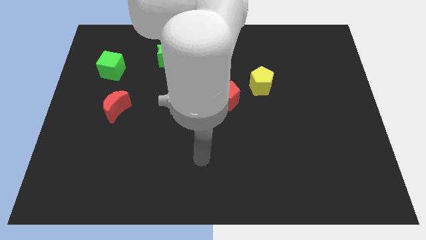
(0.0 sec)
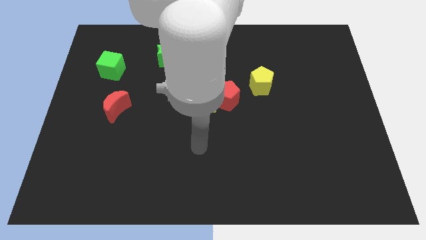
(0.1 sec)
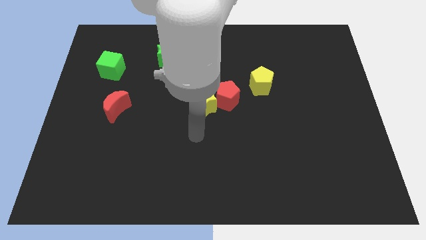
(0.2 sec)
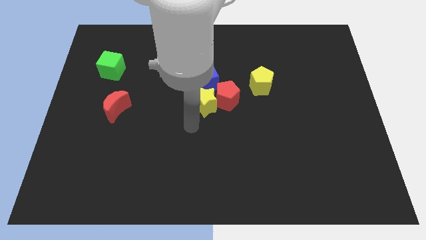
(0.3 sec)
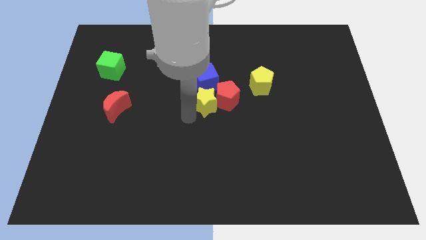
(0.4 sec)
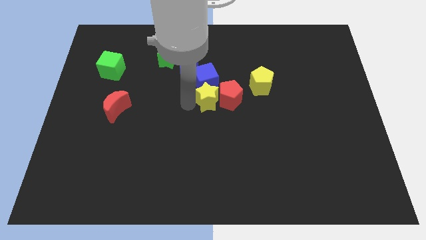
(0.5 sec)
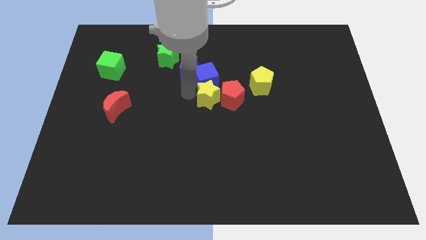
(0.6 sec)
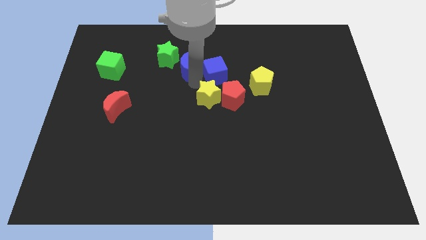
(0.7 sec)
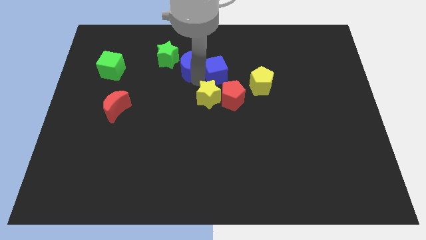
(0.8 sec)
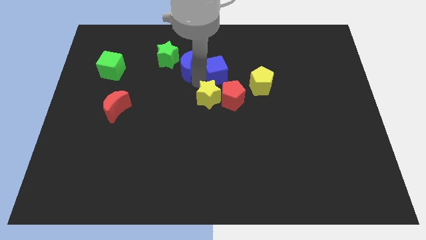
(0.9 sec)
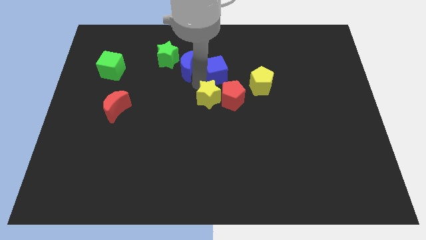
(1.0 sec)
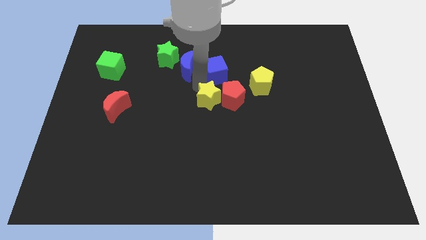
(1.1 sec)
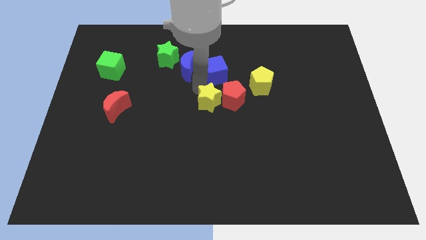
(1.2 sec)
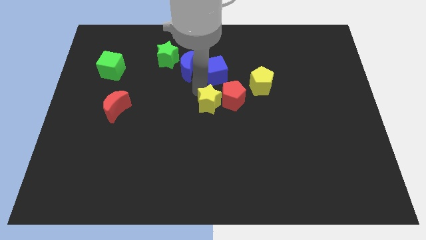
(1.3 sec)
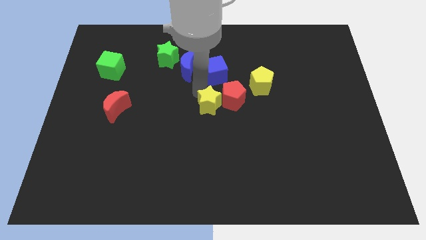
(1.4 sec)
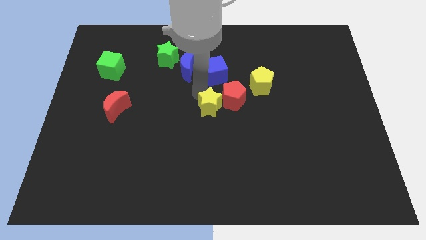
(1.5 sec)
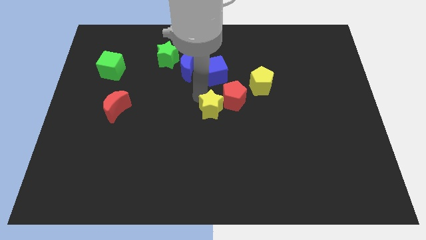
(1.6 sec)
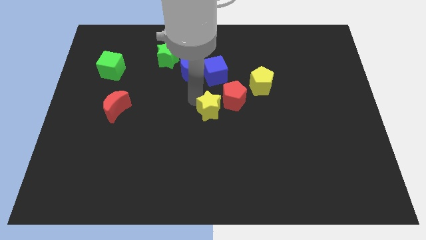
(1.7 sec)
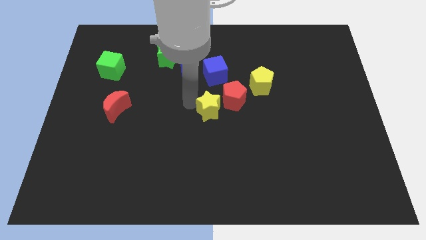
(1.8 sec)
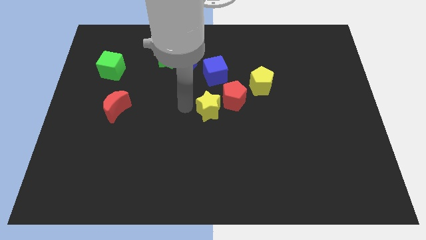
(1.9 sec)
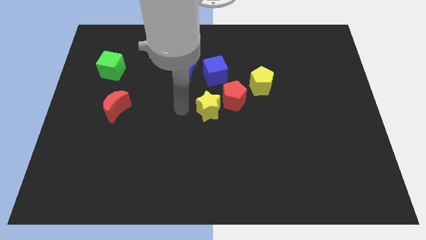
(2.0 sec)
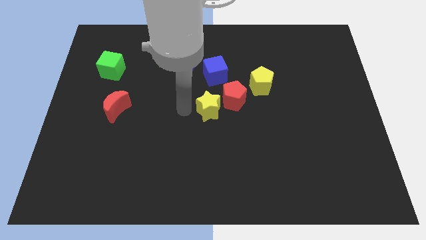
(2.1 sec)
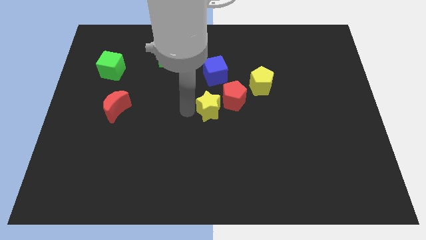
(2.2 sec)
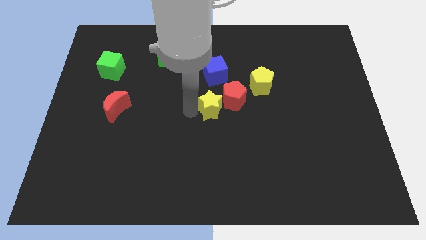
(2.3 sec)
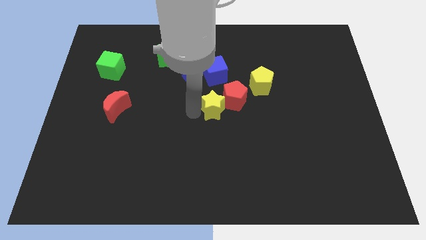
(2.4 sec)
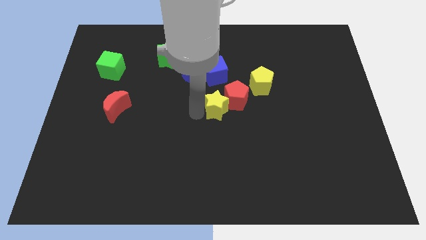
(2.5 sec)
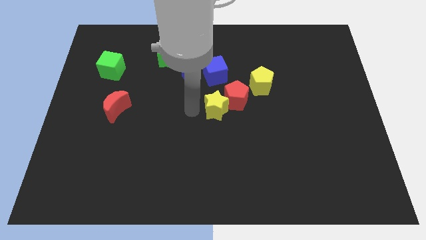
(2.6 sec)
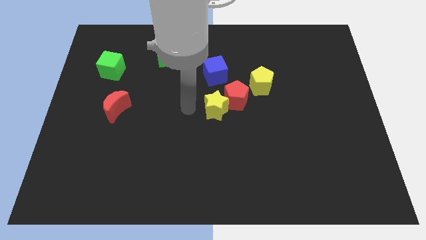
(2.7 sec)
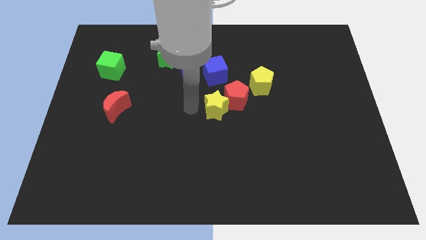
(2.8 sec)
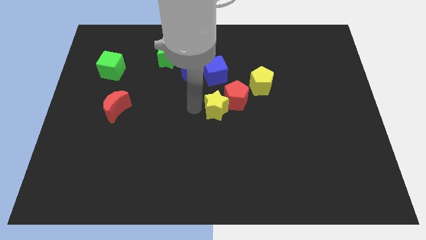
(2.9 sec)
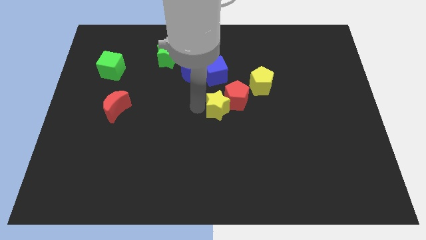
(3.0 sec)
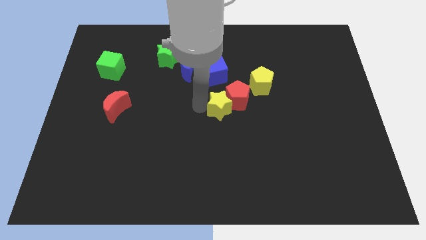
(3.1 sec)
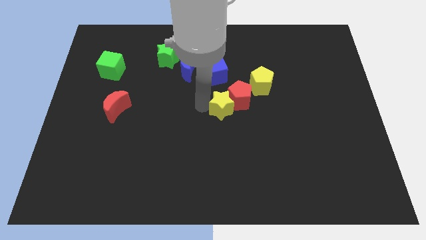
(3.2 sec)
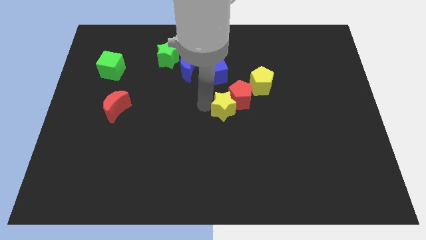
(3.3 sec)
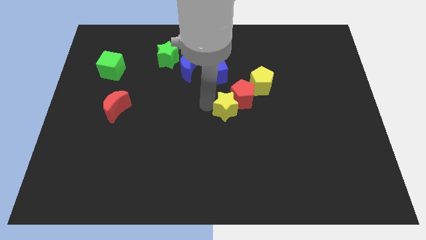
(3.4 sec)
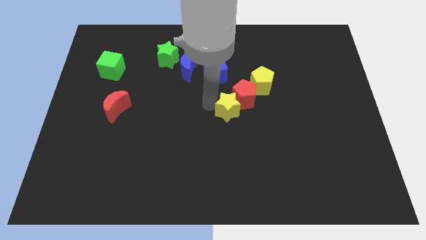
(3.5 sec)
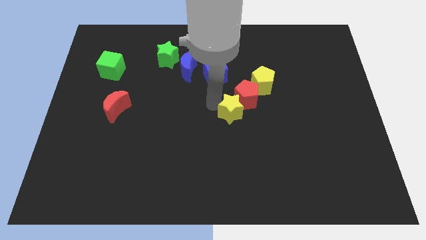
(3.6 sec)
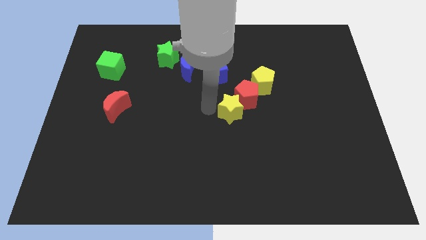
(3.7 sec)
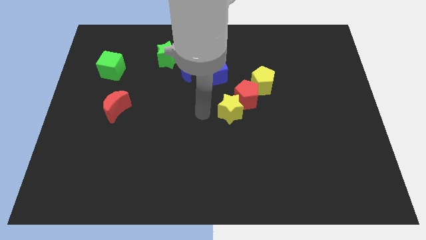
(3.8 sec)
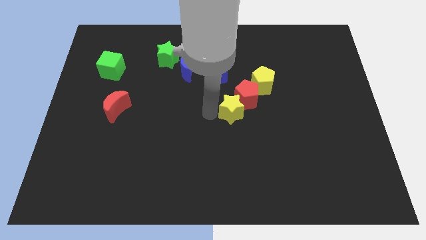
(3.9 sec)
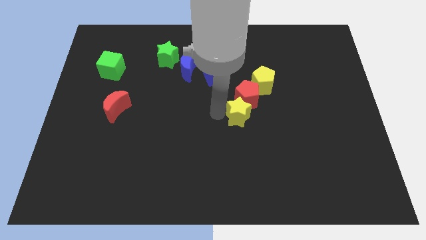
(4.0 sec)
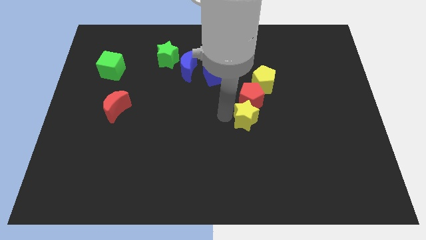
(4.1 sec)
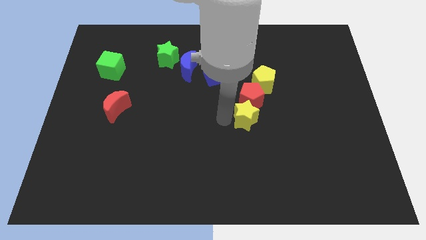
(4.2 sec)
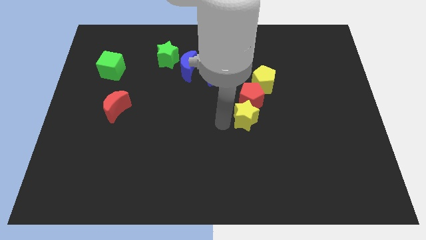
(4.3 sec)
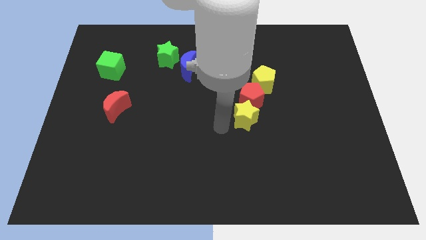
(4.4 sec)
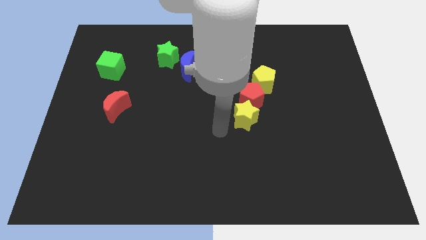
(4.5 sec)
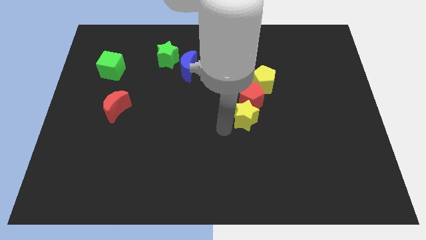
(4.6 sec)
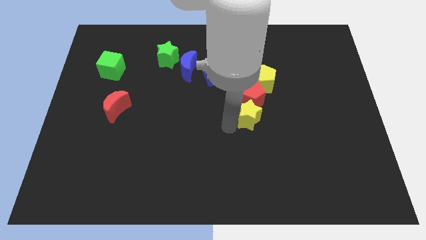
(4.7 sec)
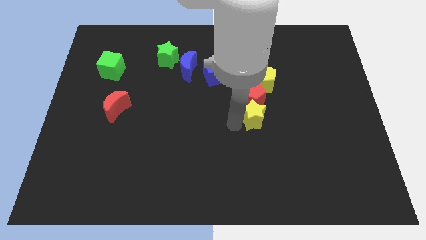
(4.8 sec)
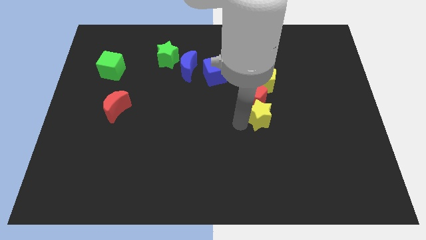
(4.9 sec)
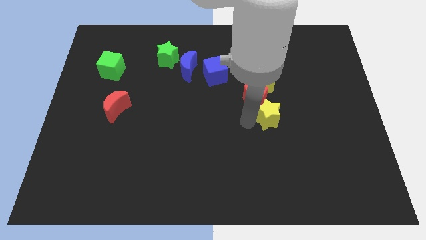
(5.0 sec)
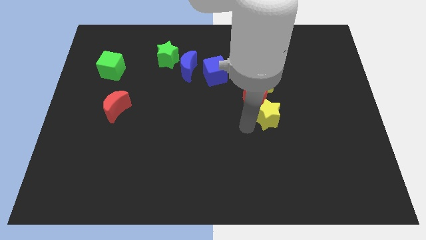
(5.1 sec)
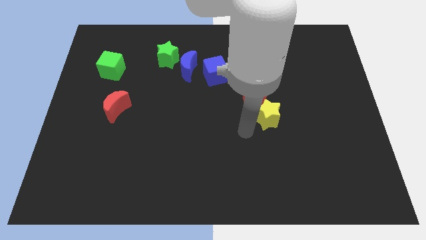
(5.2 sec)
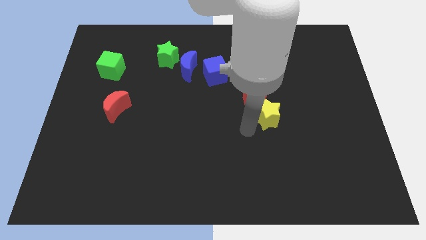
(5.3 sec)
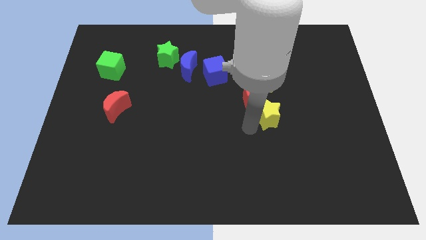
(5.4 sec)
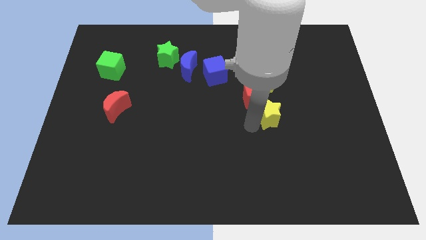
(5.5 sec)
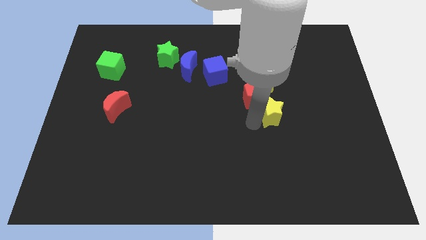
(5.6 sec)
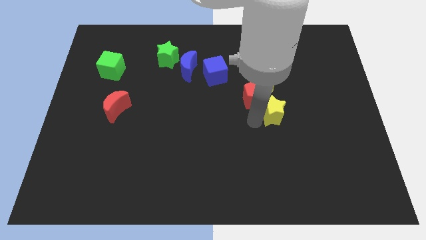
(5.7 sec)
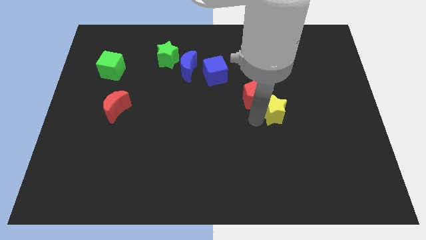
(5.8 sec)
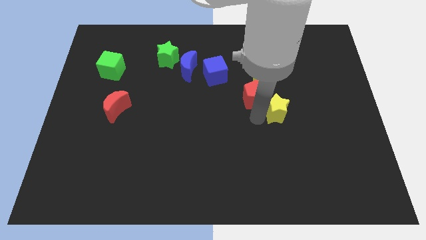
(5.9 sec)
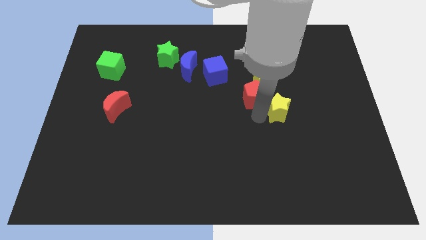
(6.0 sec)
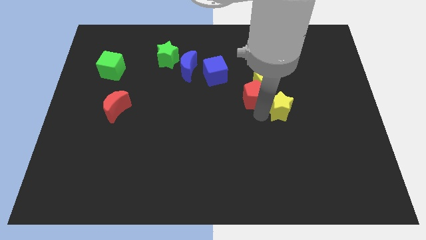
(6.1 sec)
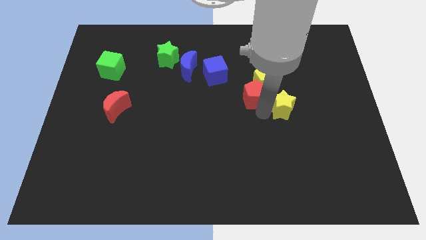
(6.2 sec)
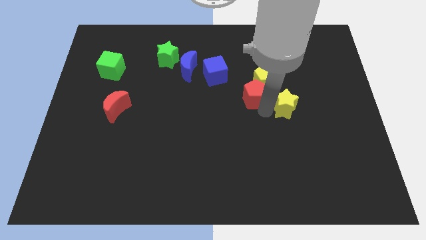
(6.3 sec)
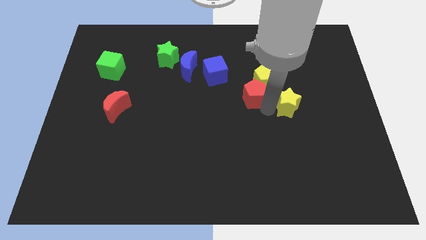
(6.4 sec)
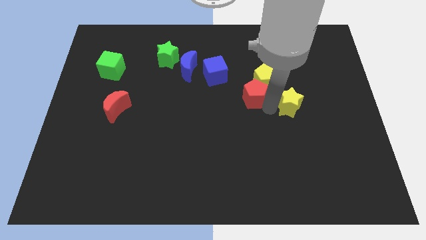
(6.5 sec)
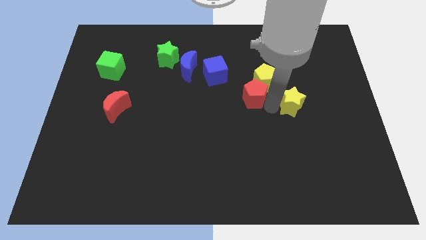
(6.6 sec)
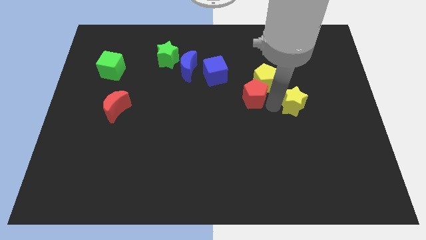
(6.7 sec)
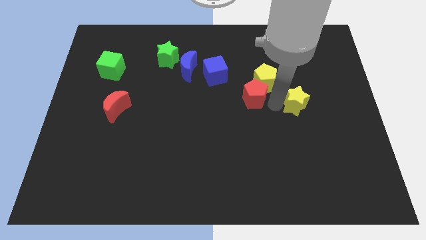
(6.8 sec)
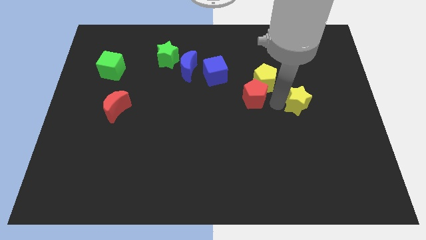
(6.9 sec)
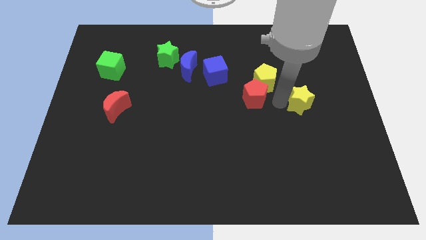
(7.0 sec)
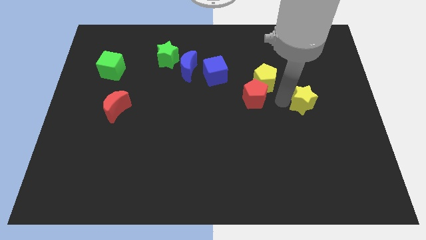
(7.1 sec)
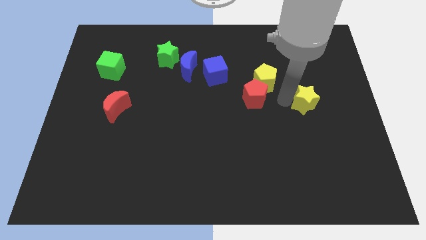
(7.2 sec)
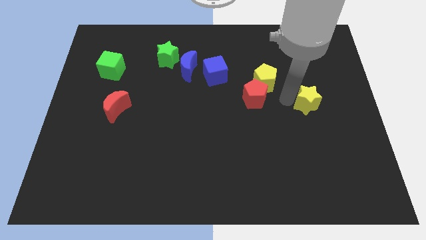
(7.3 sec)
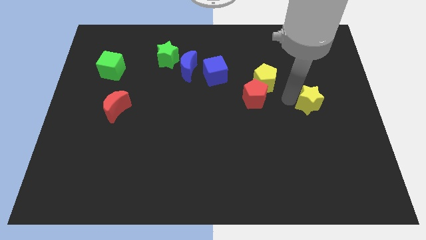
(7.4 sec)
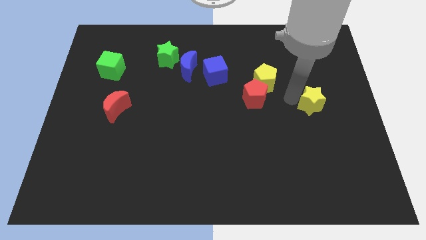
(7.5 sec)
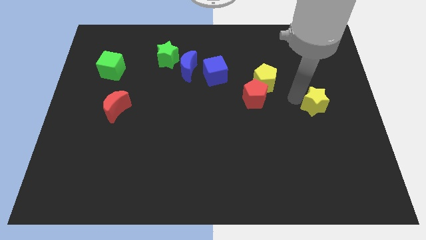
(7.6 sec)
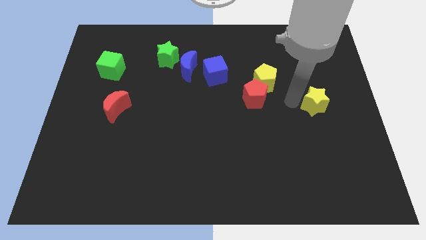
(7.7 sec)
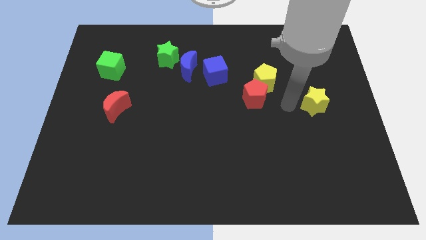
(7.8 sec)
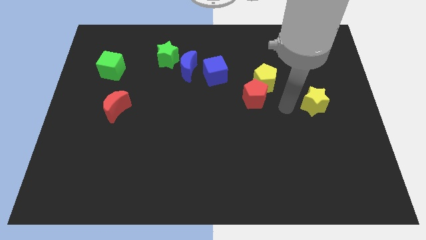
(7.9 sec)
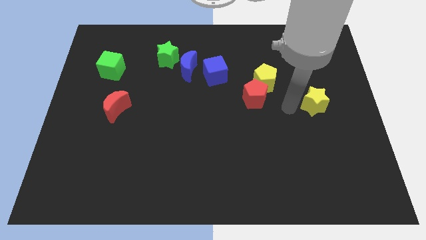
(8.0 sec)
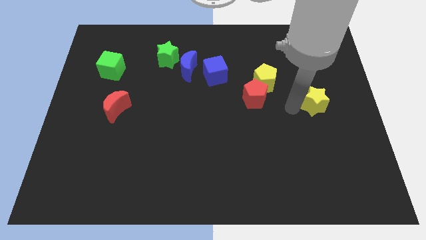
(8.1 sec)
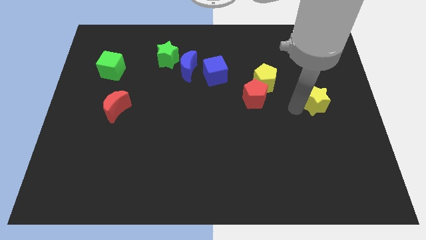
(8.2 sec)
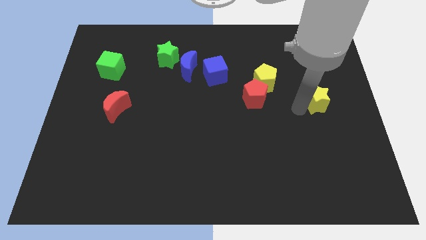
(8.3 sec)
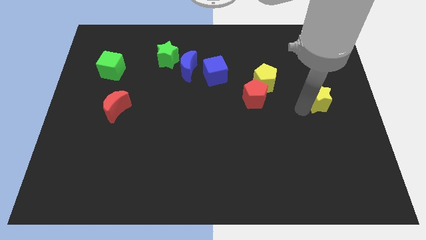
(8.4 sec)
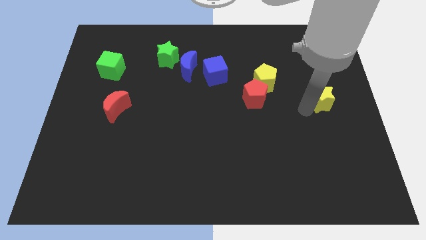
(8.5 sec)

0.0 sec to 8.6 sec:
move the yellow star to the right side
